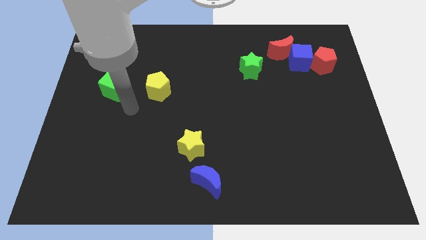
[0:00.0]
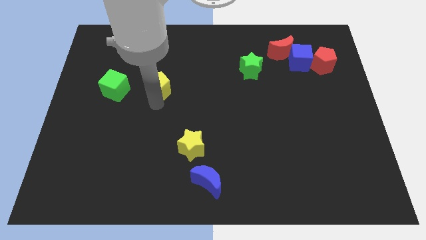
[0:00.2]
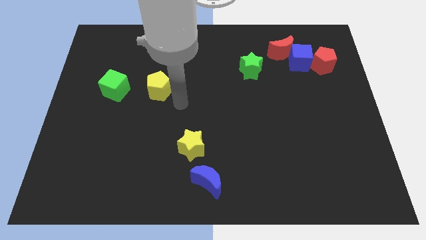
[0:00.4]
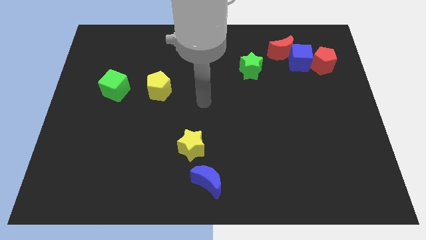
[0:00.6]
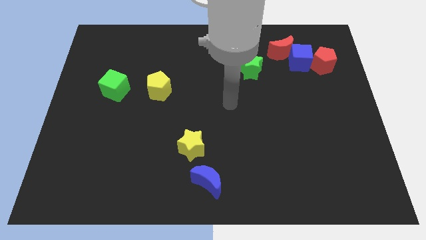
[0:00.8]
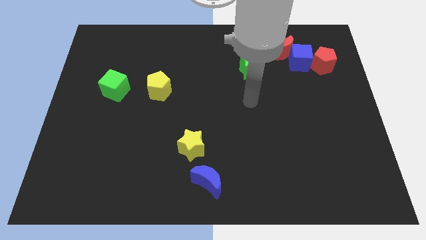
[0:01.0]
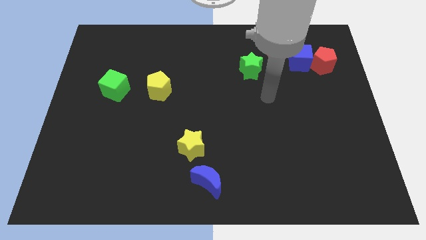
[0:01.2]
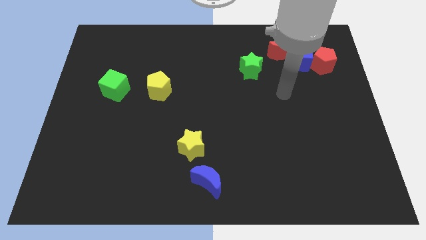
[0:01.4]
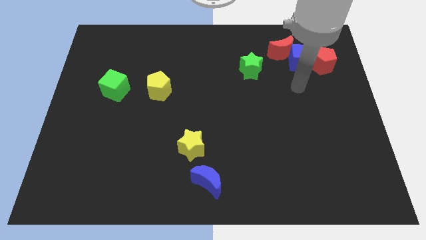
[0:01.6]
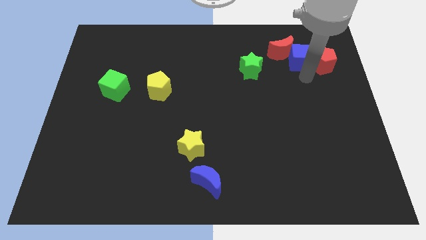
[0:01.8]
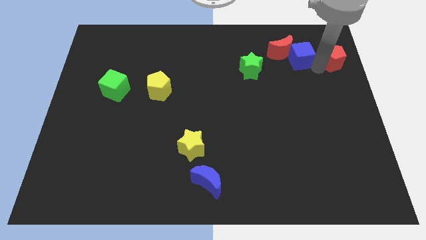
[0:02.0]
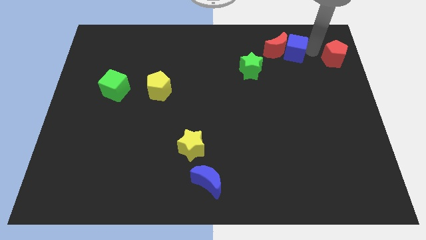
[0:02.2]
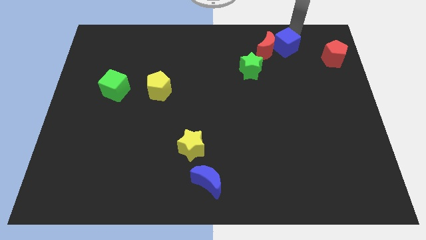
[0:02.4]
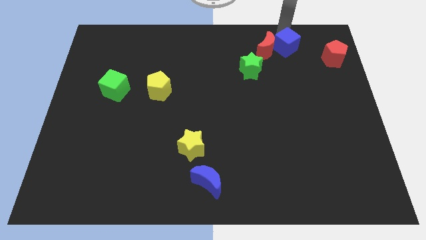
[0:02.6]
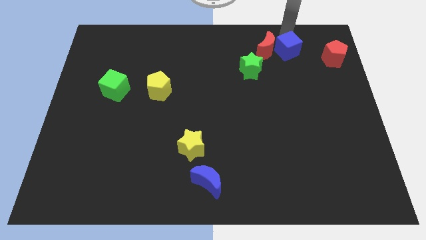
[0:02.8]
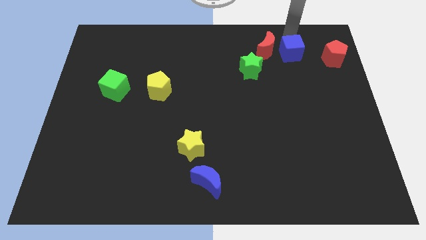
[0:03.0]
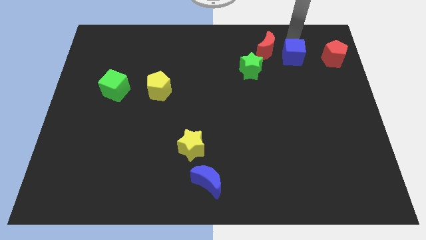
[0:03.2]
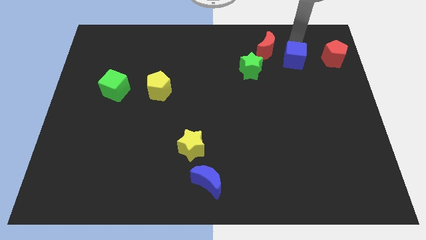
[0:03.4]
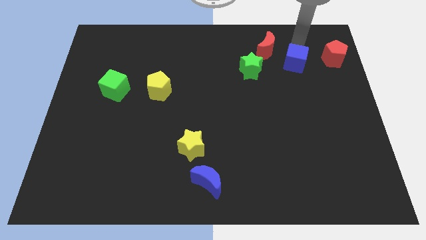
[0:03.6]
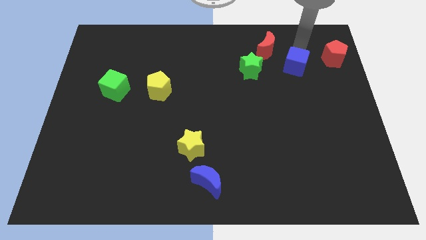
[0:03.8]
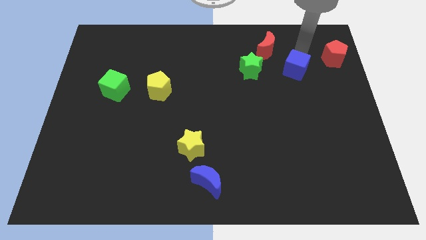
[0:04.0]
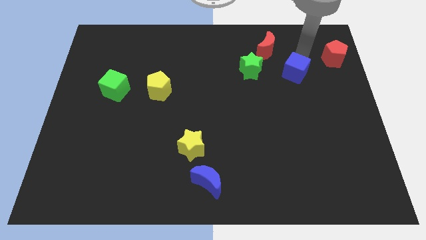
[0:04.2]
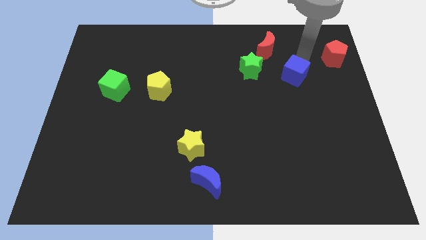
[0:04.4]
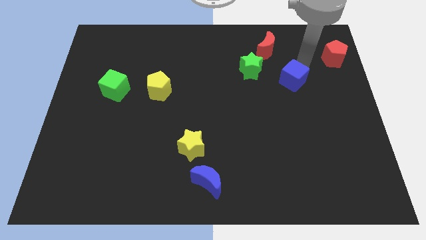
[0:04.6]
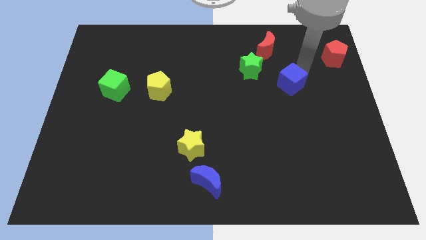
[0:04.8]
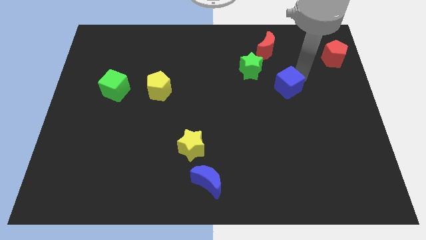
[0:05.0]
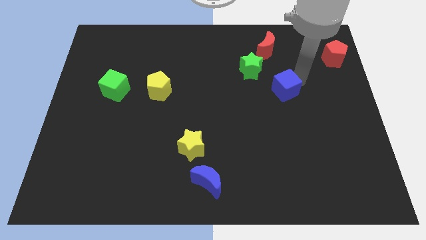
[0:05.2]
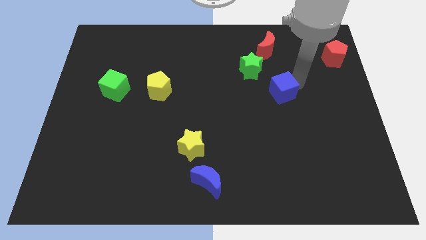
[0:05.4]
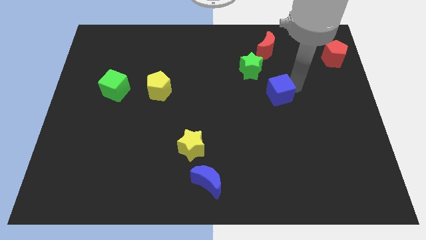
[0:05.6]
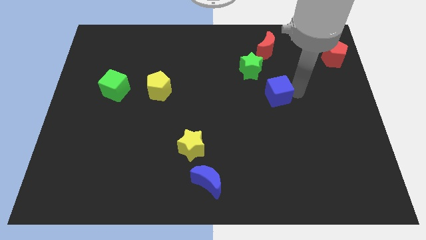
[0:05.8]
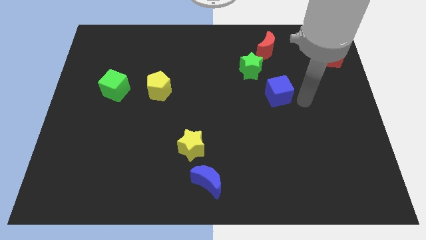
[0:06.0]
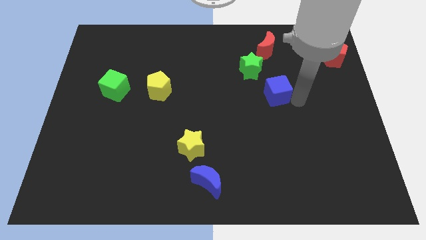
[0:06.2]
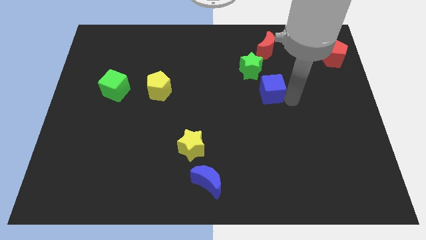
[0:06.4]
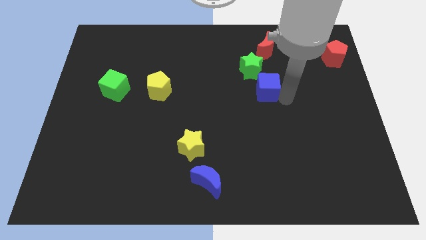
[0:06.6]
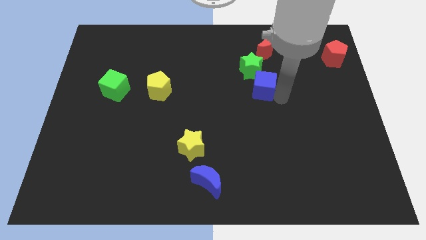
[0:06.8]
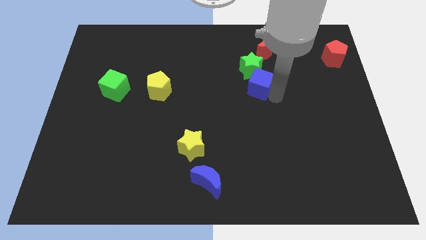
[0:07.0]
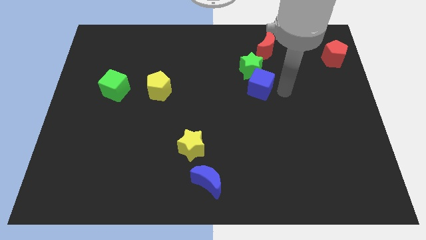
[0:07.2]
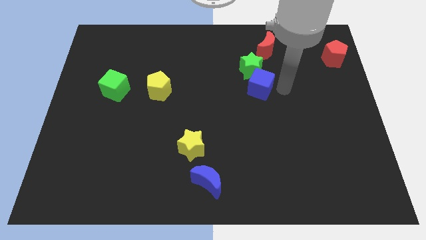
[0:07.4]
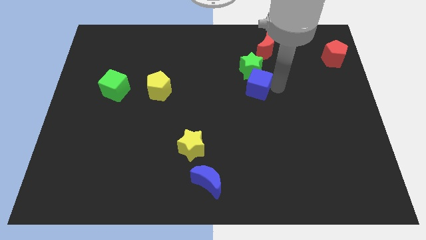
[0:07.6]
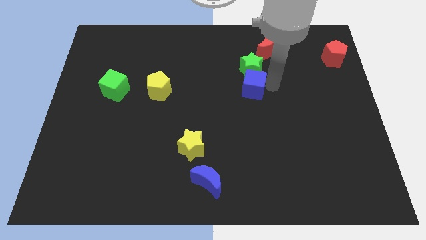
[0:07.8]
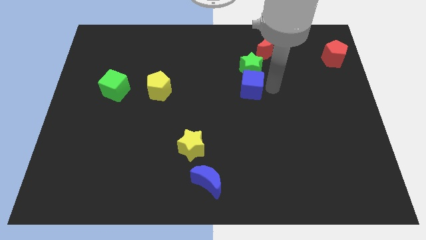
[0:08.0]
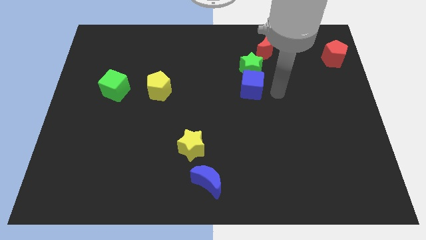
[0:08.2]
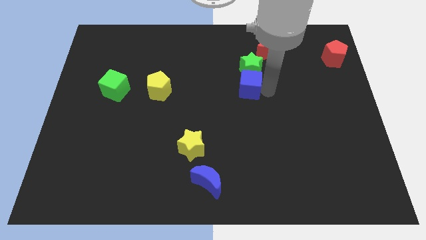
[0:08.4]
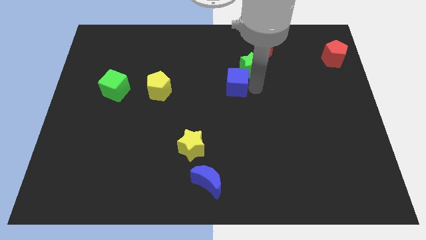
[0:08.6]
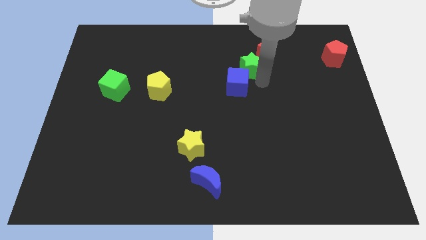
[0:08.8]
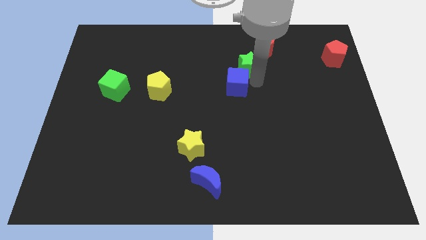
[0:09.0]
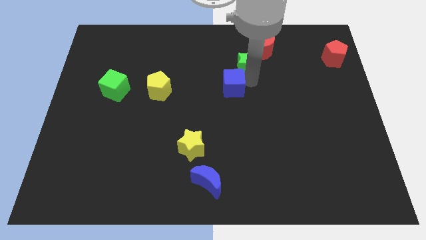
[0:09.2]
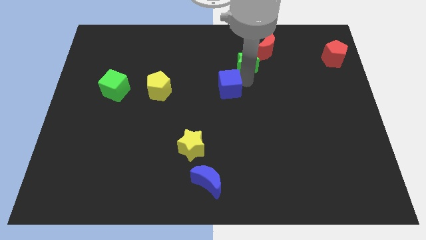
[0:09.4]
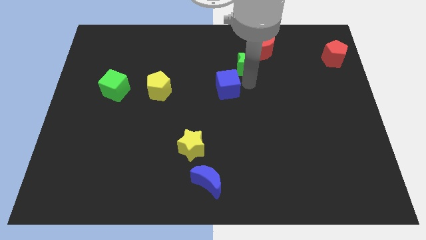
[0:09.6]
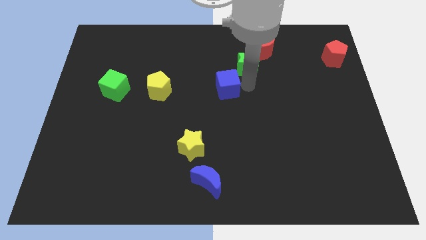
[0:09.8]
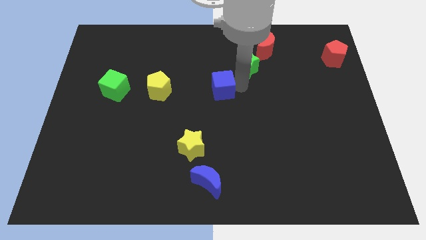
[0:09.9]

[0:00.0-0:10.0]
slide the blue cube to the right of the yellow pentagon

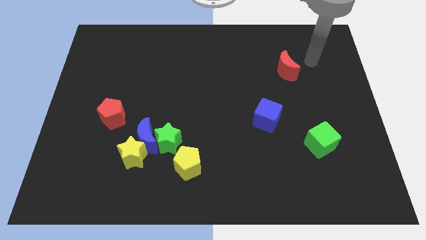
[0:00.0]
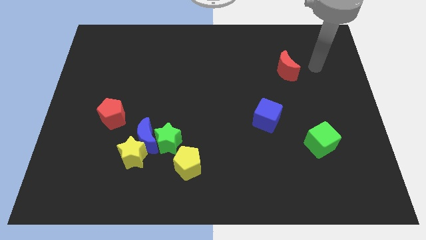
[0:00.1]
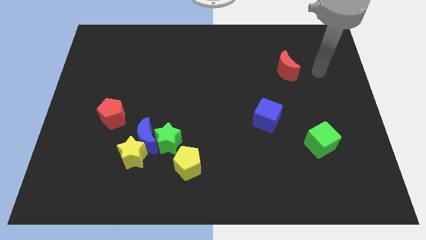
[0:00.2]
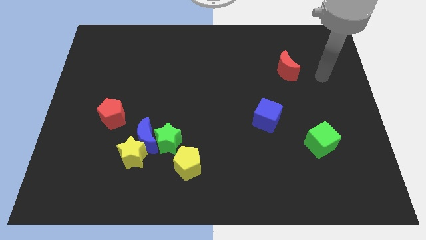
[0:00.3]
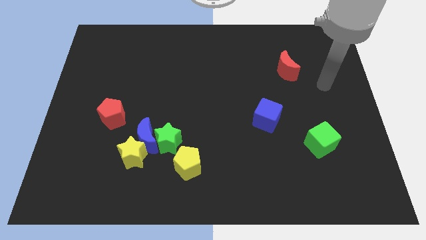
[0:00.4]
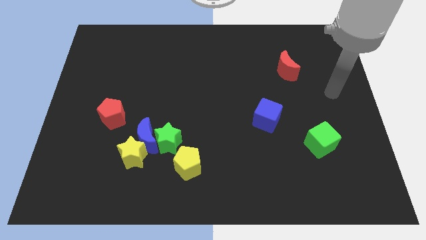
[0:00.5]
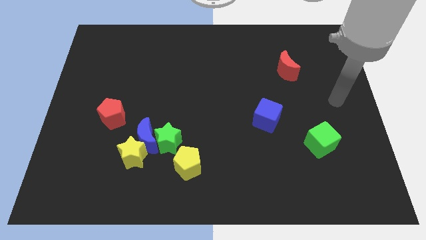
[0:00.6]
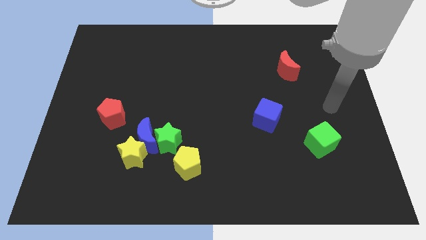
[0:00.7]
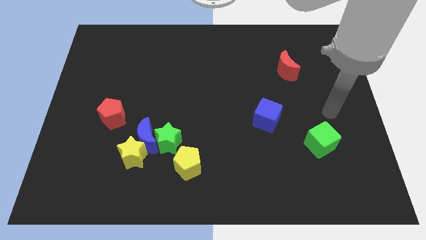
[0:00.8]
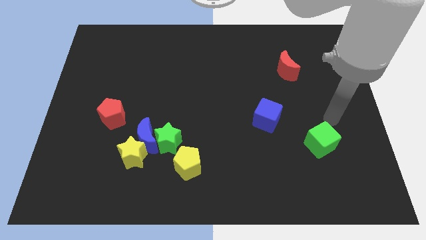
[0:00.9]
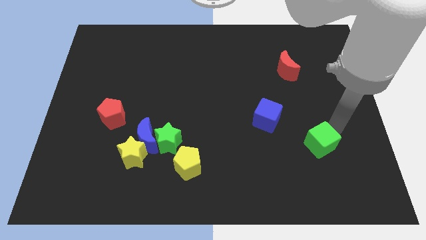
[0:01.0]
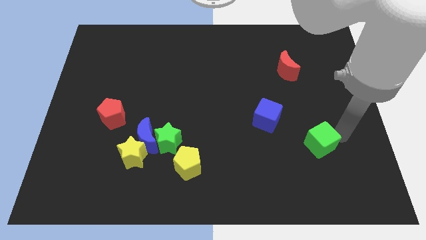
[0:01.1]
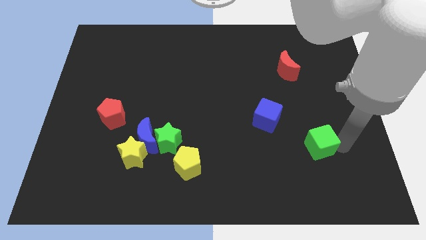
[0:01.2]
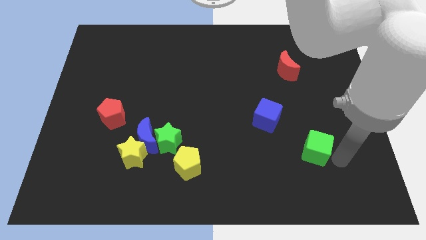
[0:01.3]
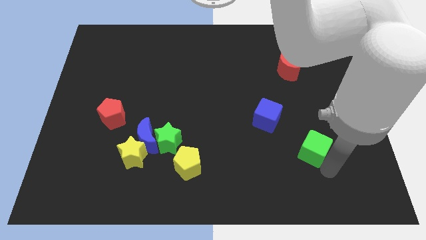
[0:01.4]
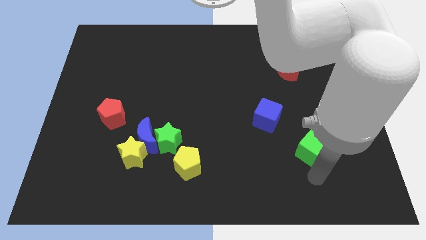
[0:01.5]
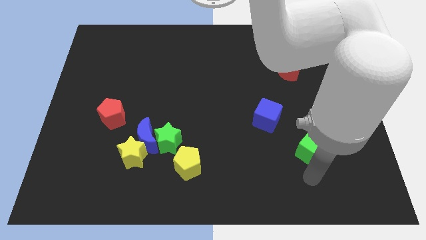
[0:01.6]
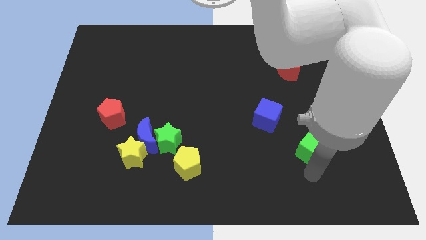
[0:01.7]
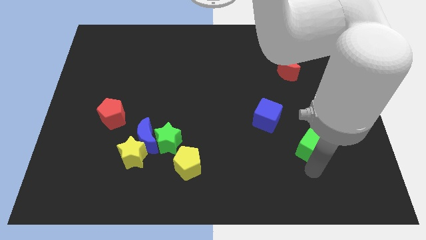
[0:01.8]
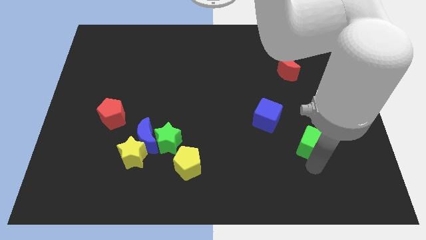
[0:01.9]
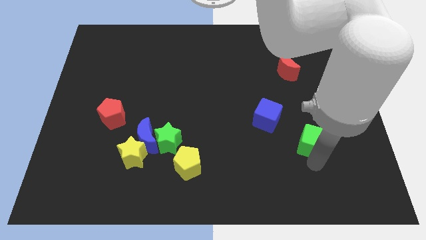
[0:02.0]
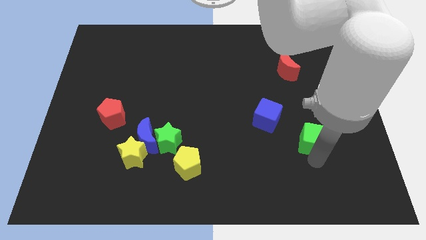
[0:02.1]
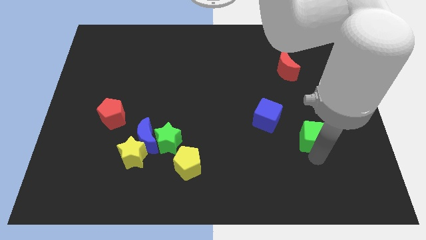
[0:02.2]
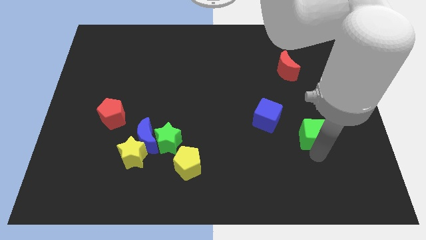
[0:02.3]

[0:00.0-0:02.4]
put the green cube to the right side of the blue cube

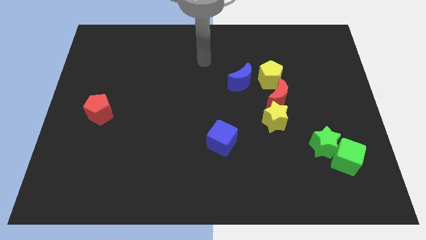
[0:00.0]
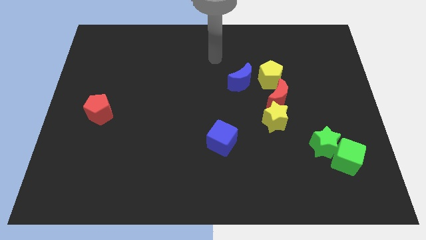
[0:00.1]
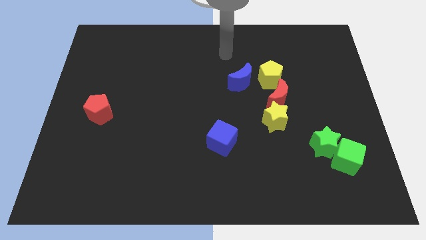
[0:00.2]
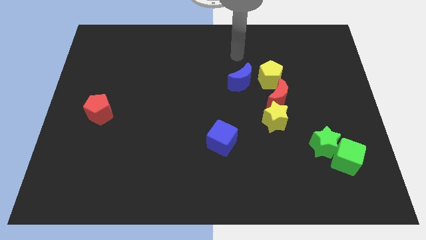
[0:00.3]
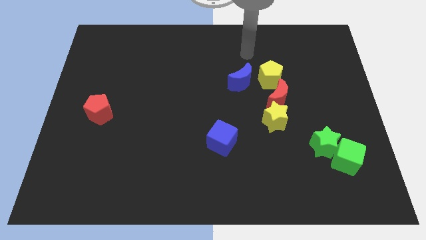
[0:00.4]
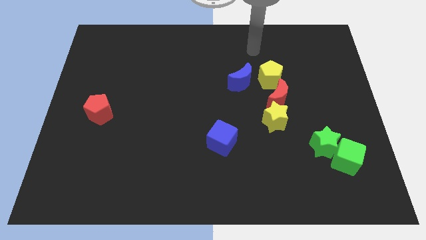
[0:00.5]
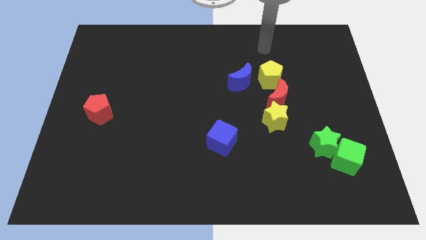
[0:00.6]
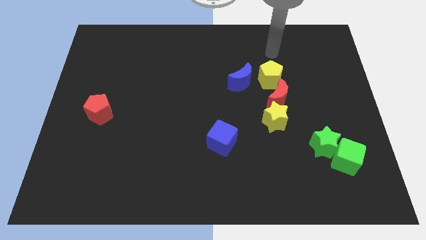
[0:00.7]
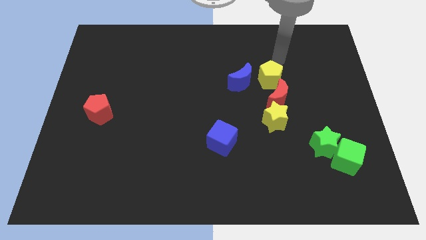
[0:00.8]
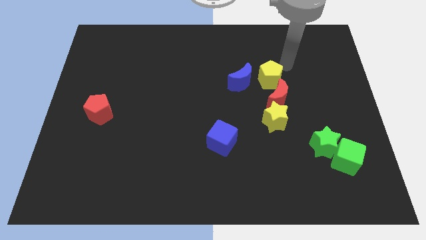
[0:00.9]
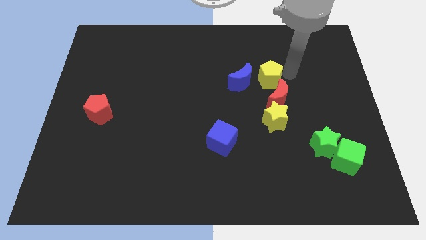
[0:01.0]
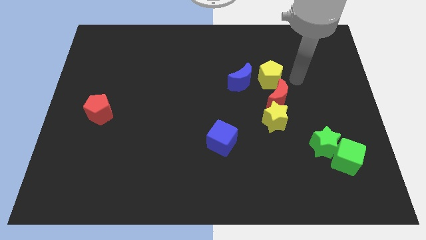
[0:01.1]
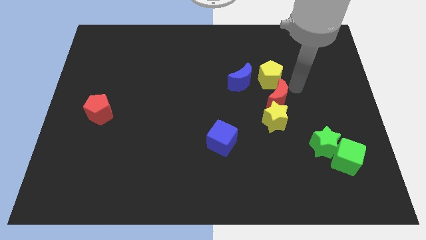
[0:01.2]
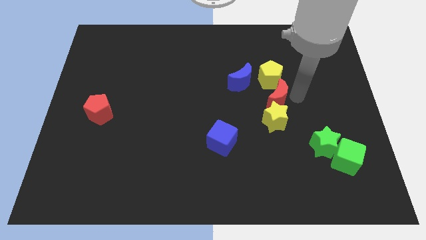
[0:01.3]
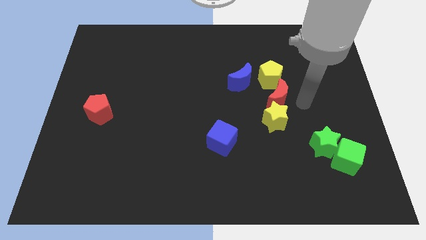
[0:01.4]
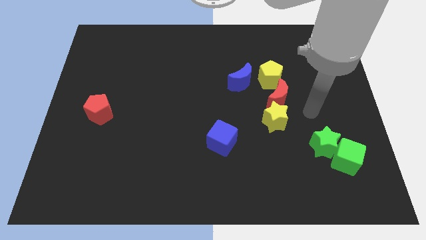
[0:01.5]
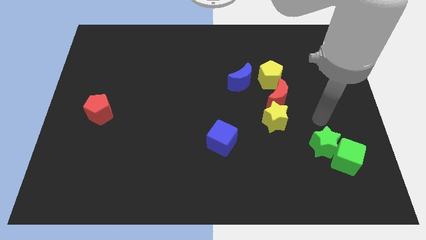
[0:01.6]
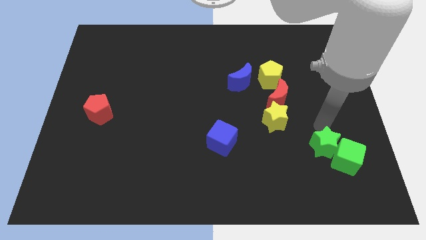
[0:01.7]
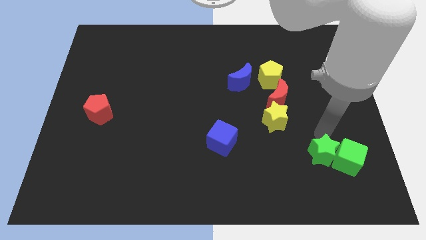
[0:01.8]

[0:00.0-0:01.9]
move the green star diagonally down and to the left of the green cube
